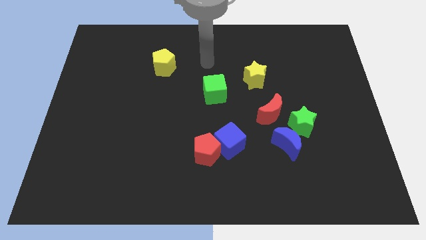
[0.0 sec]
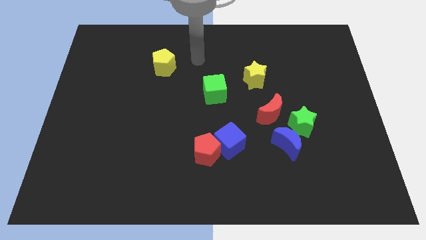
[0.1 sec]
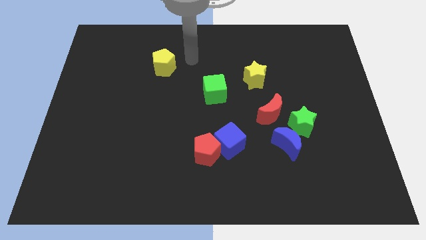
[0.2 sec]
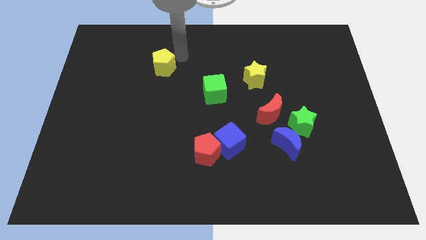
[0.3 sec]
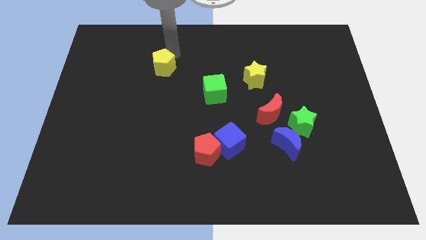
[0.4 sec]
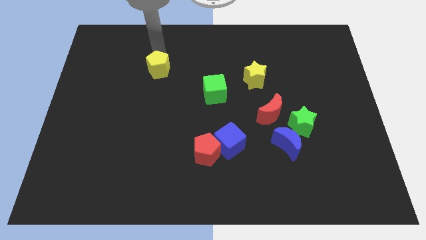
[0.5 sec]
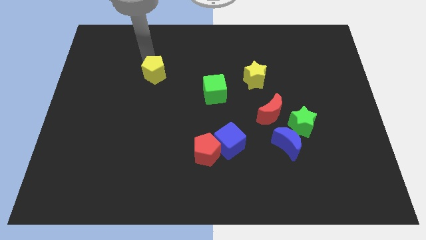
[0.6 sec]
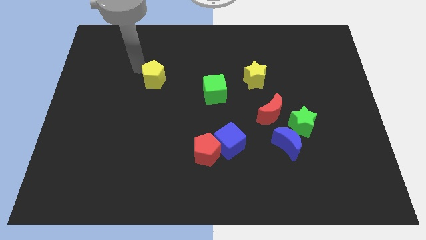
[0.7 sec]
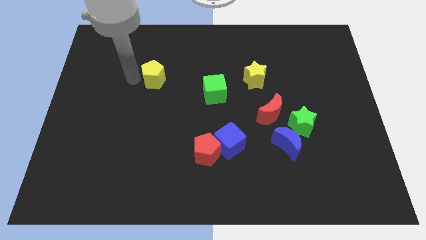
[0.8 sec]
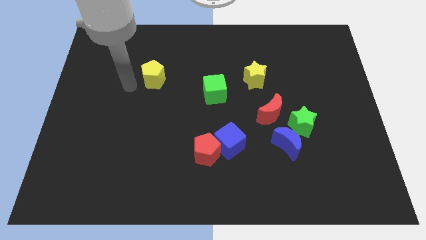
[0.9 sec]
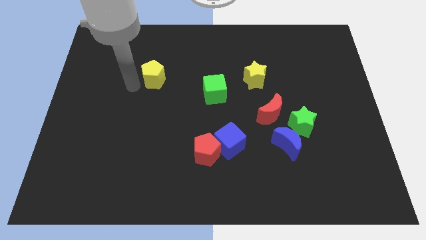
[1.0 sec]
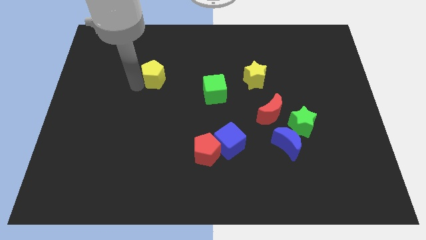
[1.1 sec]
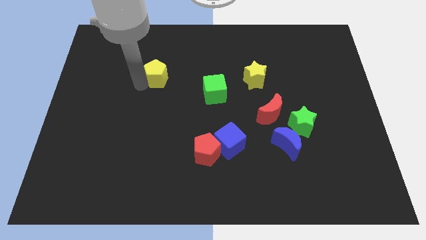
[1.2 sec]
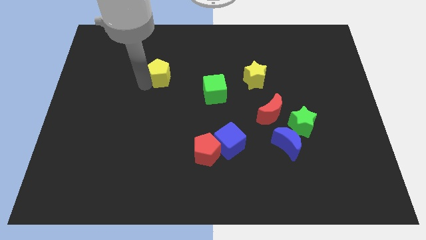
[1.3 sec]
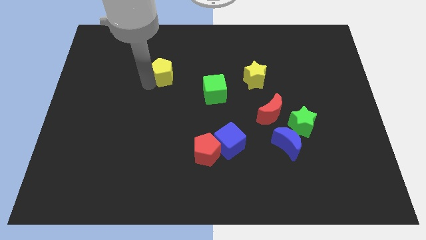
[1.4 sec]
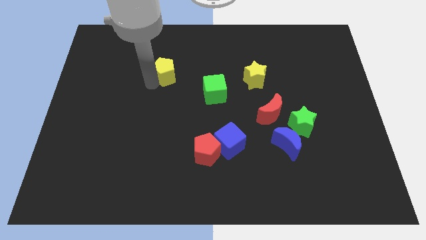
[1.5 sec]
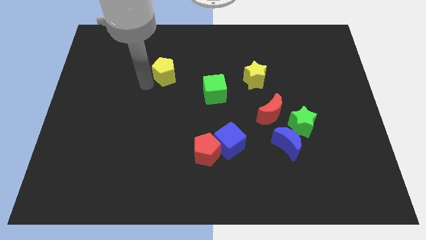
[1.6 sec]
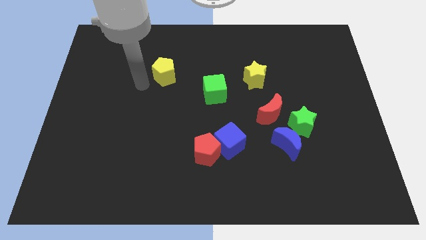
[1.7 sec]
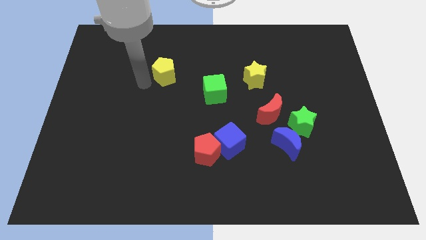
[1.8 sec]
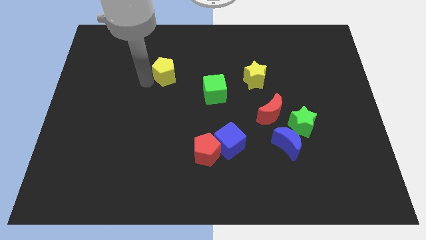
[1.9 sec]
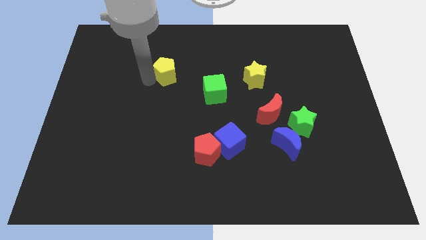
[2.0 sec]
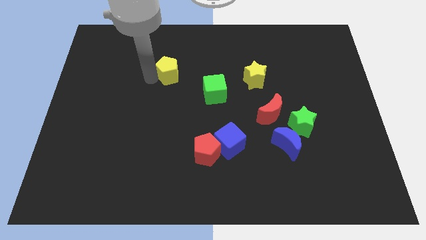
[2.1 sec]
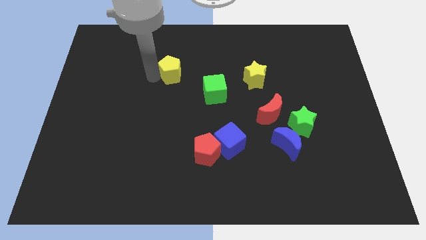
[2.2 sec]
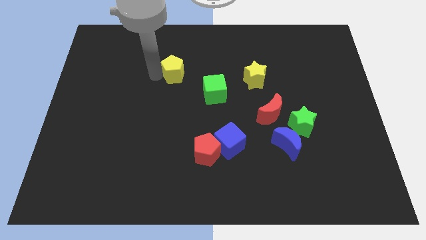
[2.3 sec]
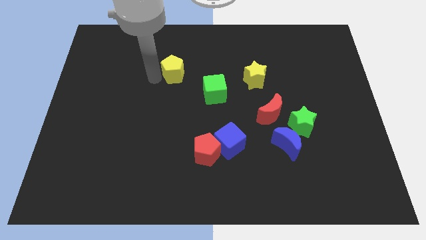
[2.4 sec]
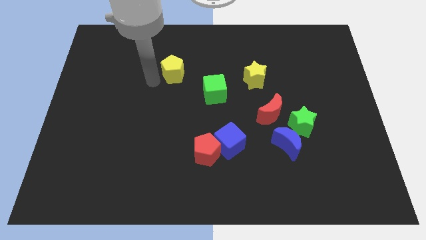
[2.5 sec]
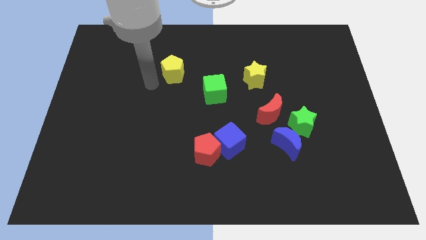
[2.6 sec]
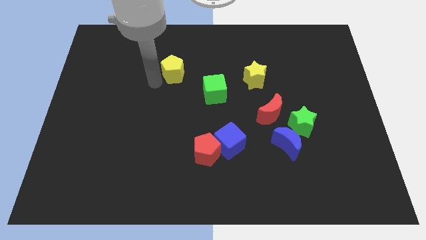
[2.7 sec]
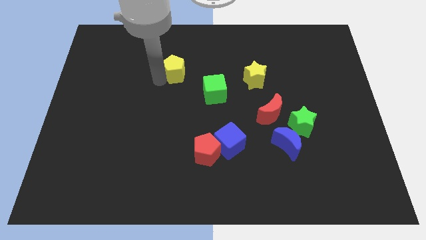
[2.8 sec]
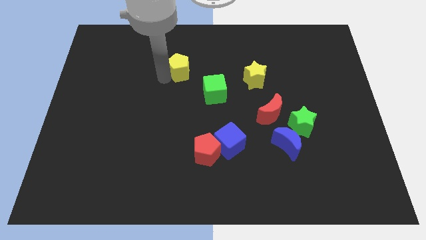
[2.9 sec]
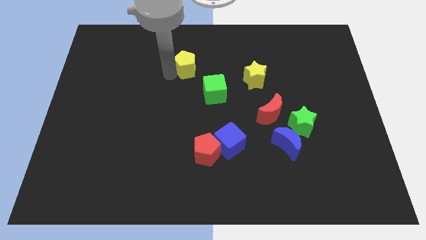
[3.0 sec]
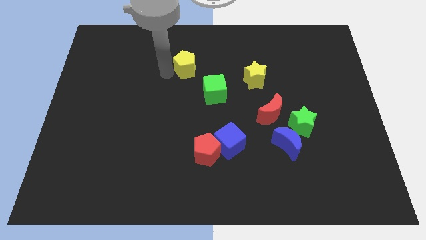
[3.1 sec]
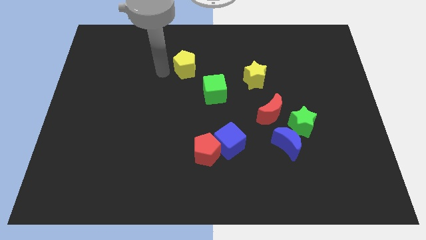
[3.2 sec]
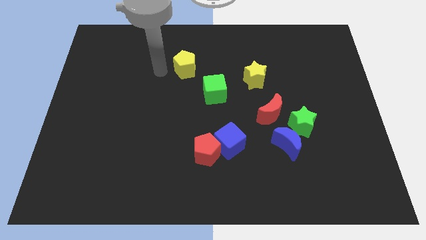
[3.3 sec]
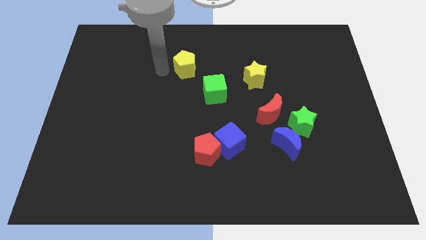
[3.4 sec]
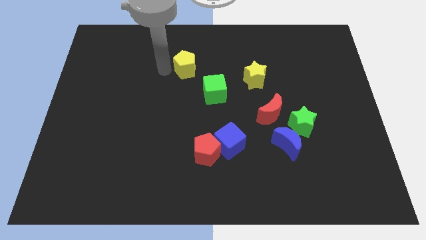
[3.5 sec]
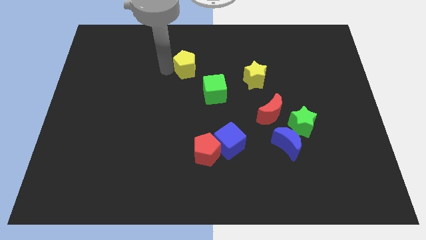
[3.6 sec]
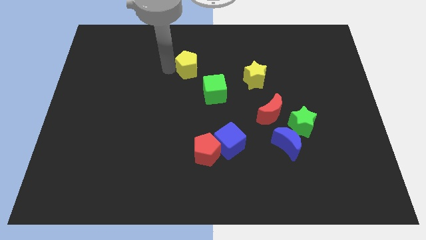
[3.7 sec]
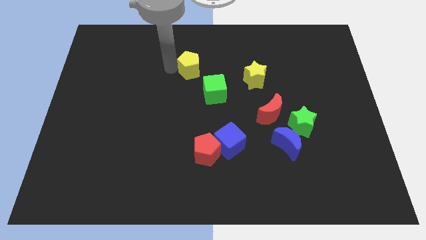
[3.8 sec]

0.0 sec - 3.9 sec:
slide the yellow pentagon right a little

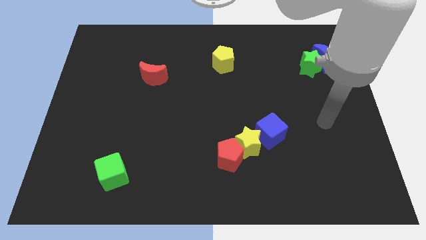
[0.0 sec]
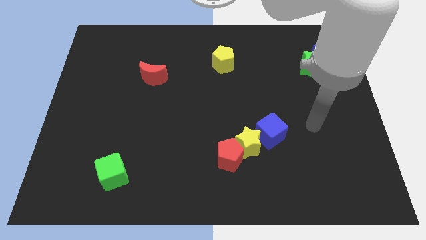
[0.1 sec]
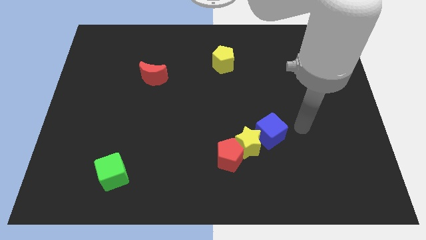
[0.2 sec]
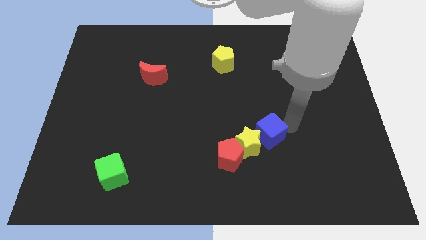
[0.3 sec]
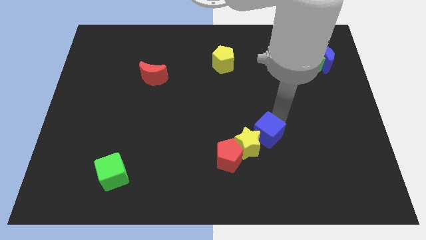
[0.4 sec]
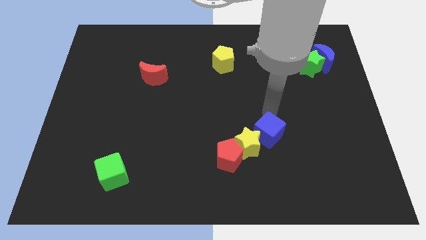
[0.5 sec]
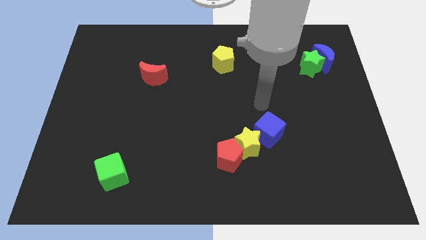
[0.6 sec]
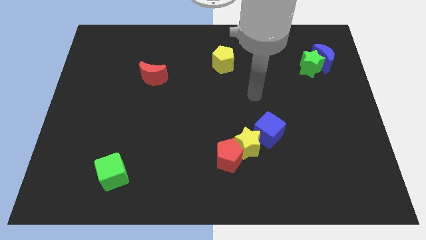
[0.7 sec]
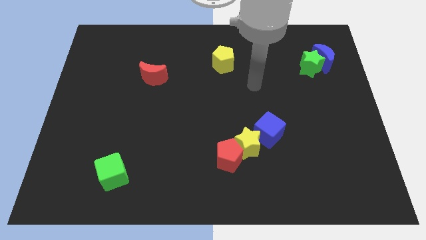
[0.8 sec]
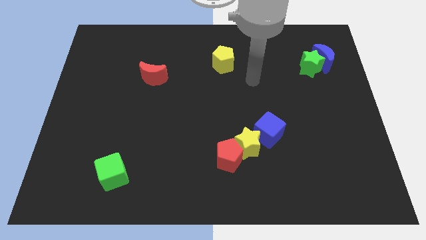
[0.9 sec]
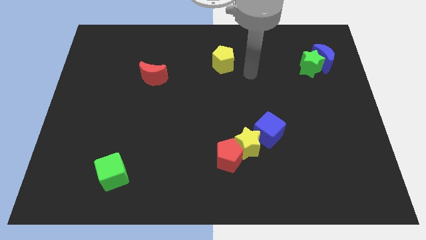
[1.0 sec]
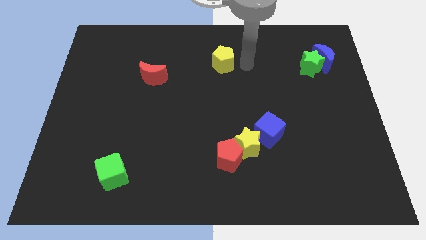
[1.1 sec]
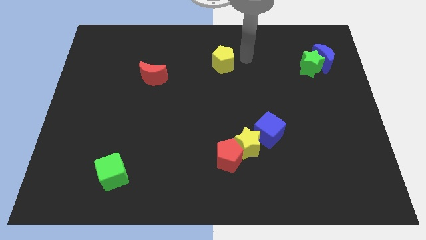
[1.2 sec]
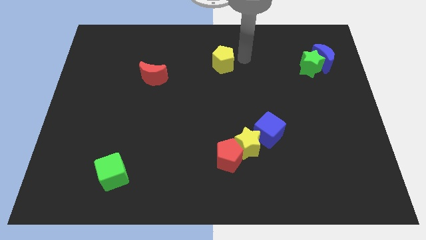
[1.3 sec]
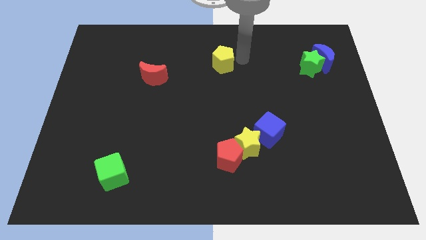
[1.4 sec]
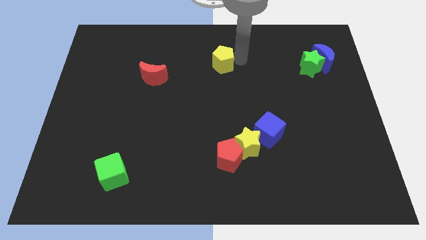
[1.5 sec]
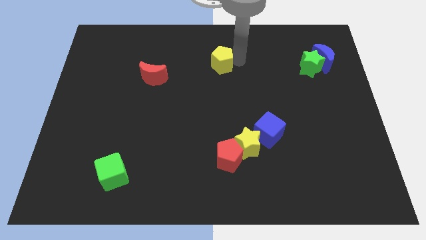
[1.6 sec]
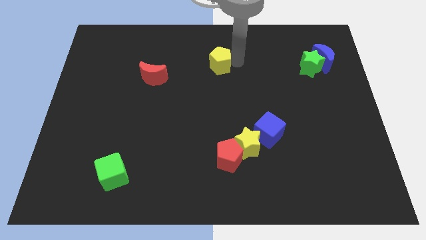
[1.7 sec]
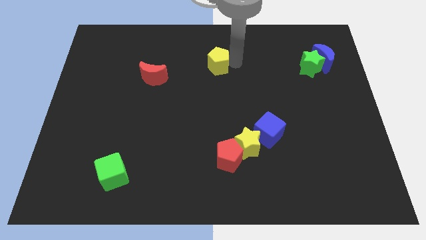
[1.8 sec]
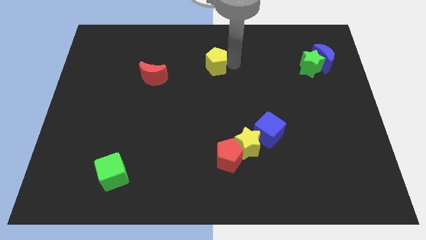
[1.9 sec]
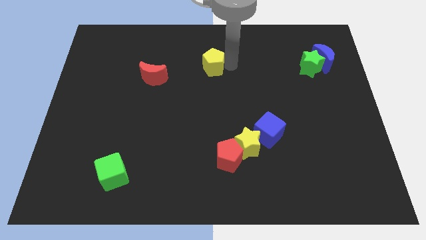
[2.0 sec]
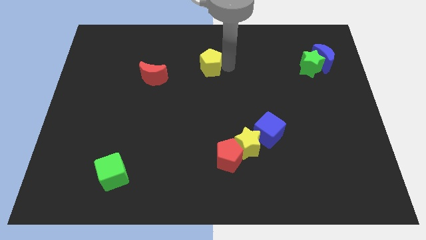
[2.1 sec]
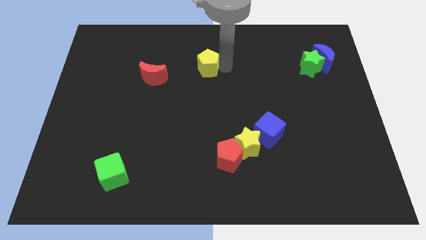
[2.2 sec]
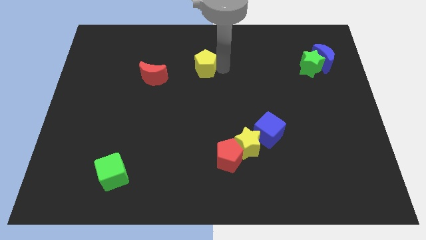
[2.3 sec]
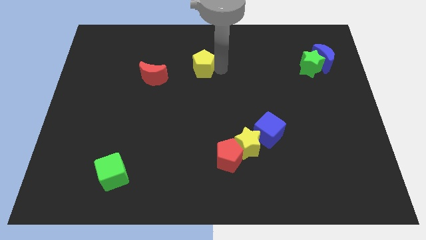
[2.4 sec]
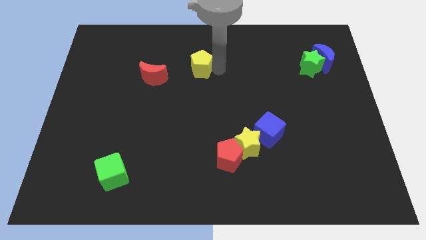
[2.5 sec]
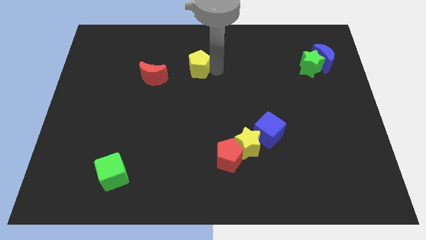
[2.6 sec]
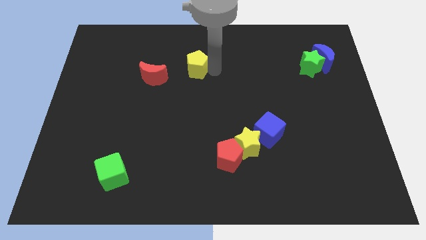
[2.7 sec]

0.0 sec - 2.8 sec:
slide the yellow pentagon a little bit left

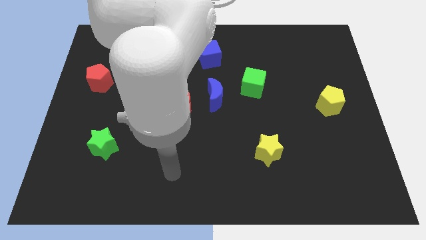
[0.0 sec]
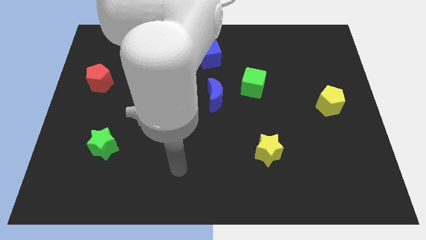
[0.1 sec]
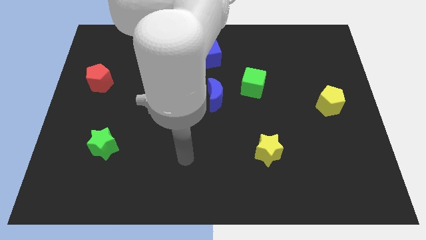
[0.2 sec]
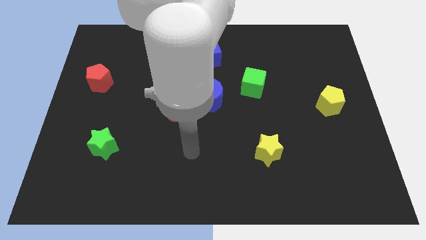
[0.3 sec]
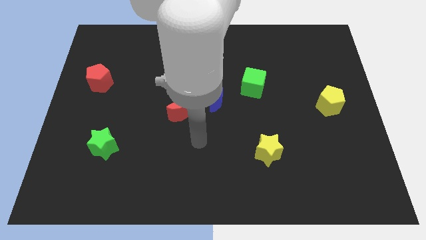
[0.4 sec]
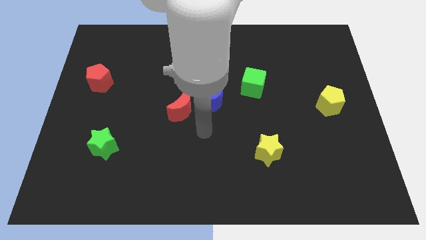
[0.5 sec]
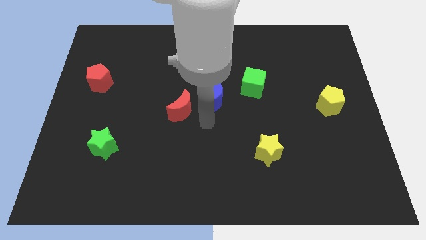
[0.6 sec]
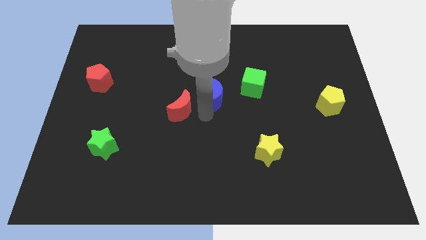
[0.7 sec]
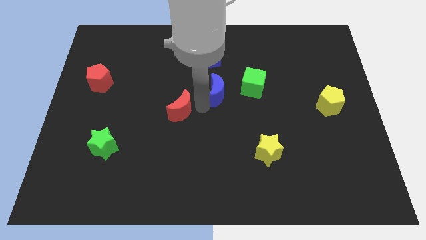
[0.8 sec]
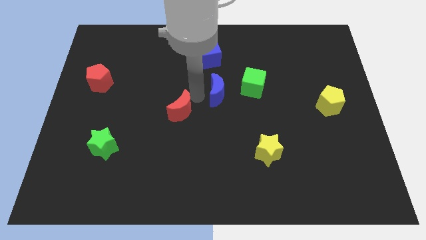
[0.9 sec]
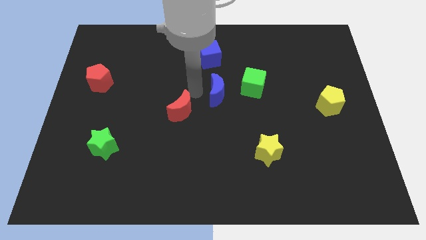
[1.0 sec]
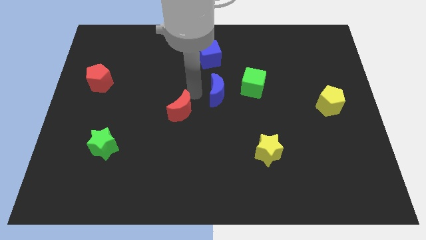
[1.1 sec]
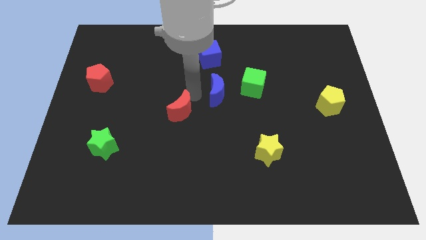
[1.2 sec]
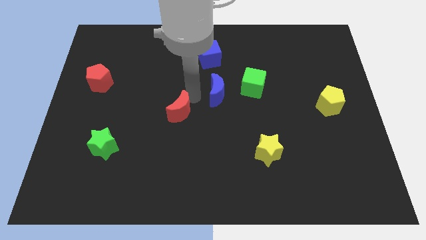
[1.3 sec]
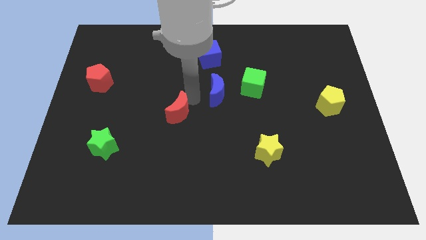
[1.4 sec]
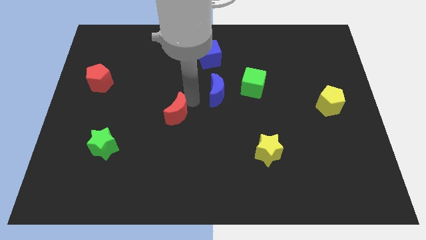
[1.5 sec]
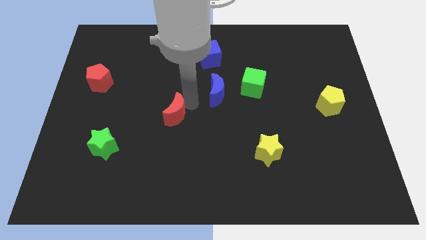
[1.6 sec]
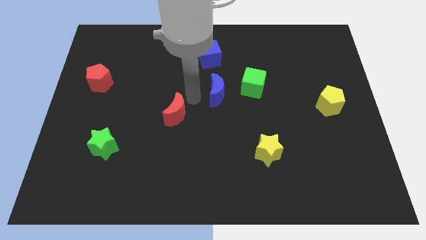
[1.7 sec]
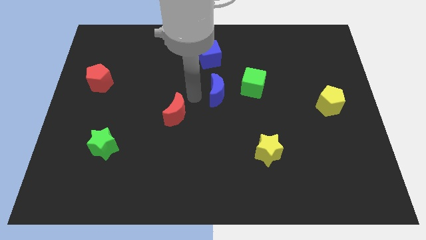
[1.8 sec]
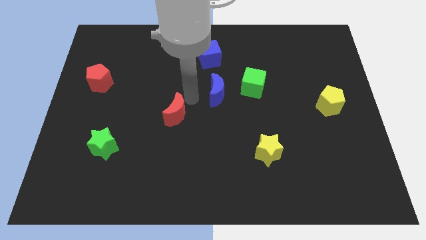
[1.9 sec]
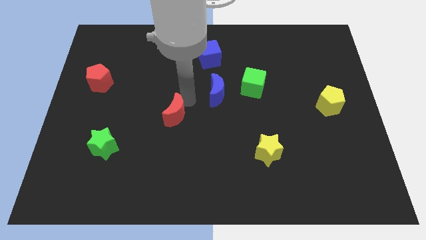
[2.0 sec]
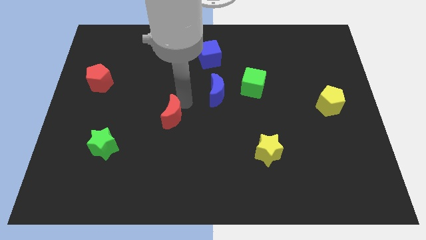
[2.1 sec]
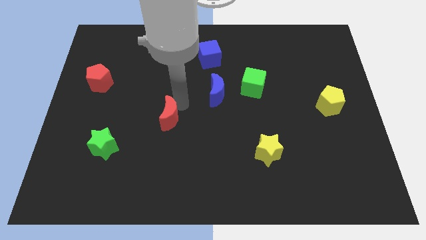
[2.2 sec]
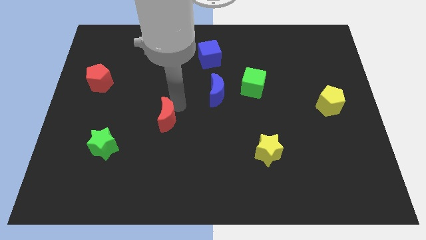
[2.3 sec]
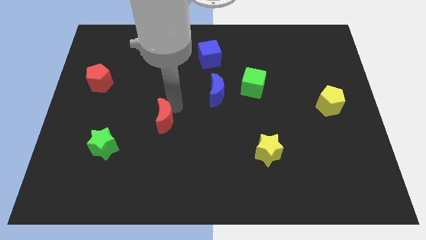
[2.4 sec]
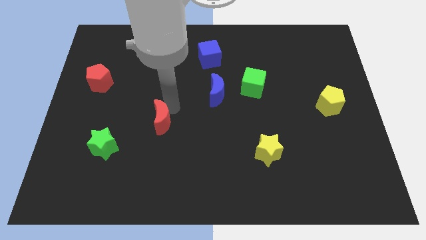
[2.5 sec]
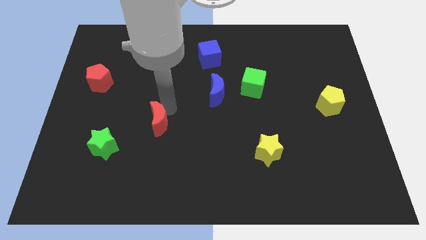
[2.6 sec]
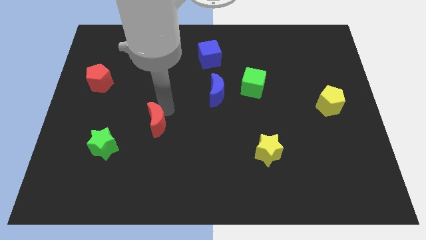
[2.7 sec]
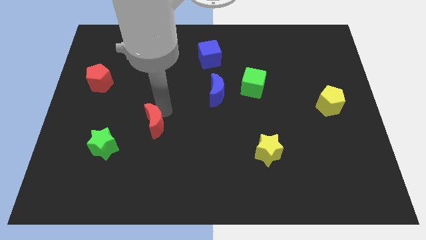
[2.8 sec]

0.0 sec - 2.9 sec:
slightly push the red moon down and to the left
